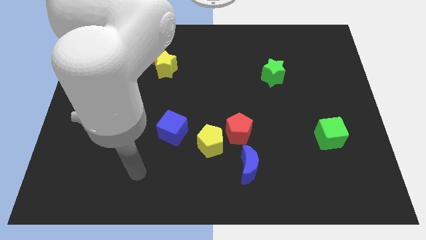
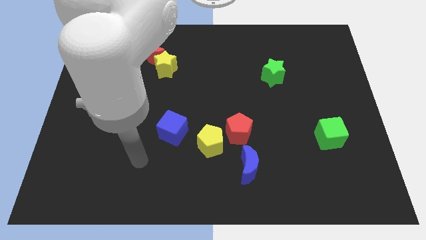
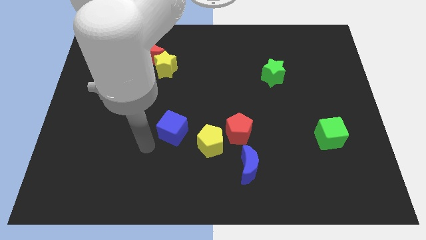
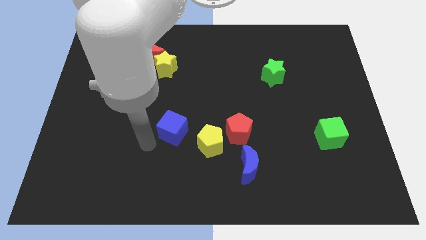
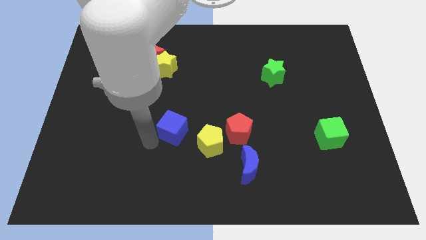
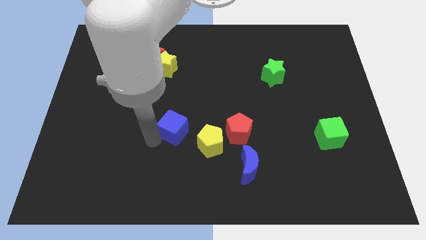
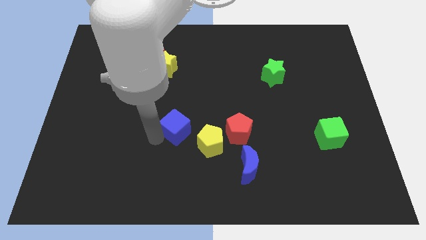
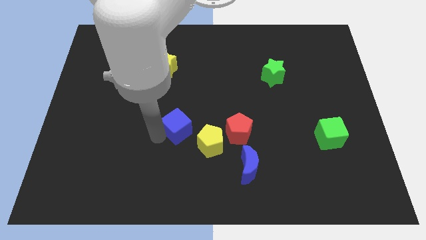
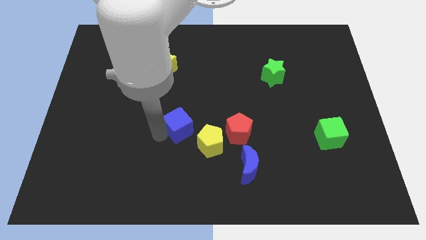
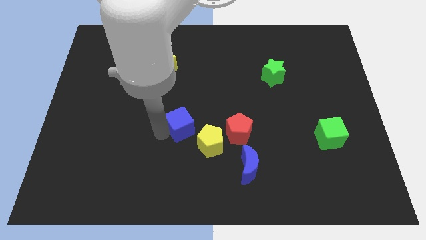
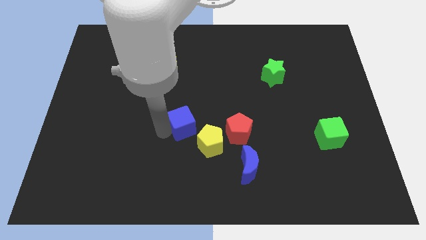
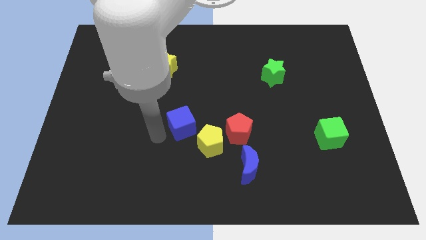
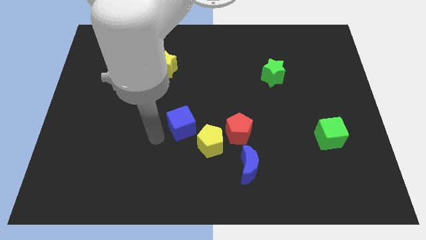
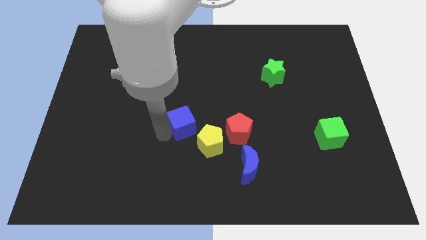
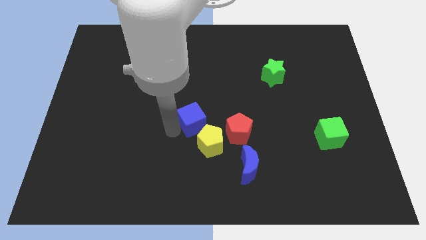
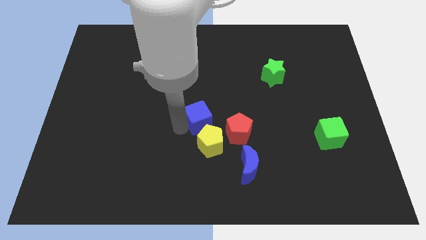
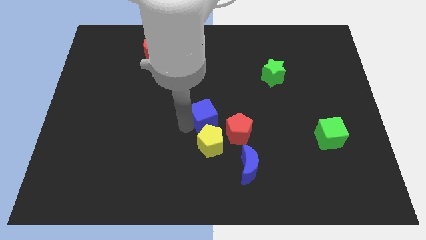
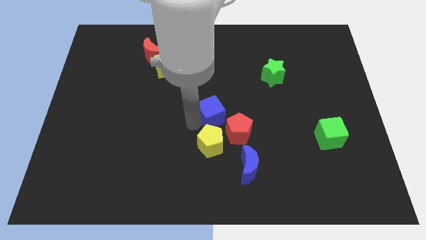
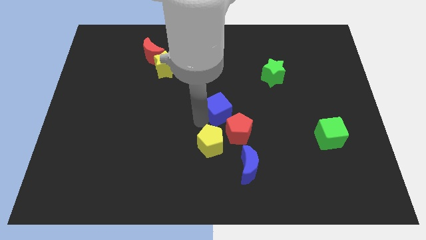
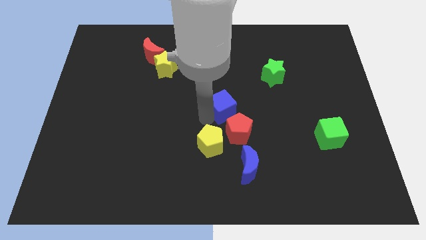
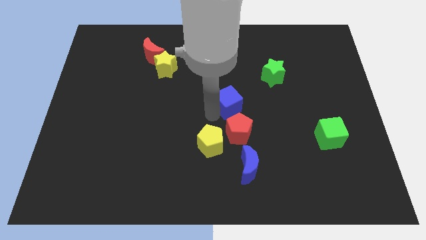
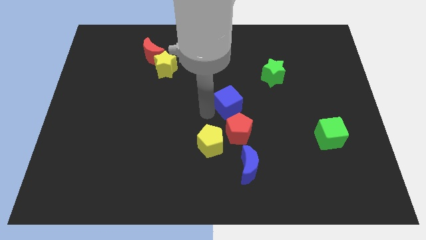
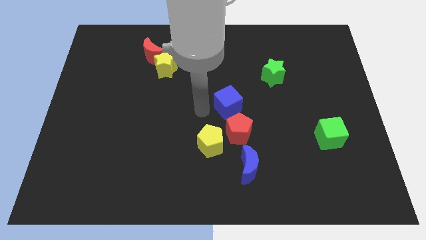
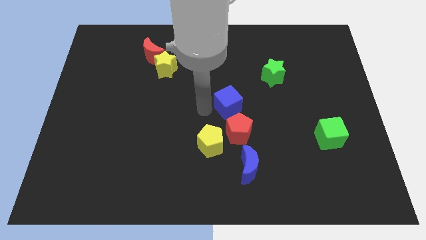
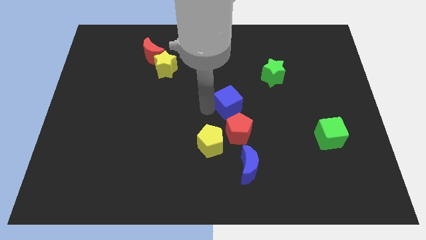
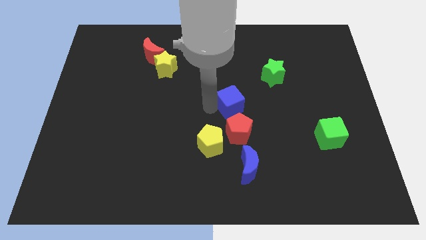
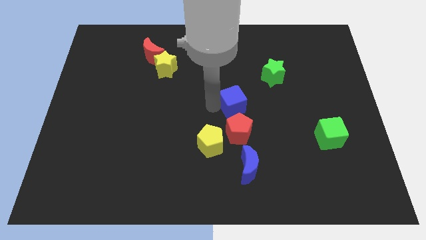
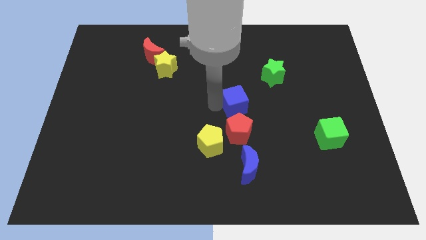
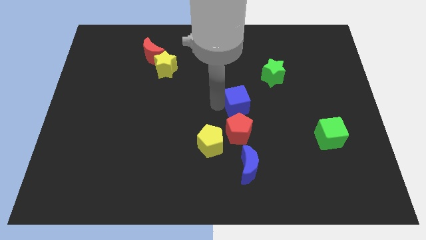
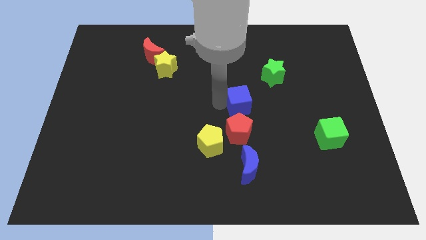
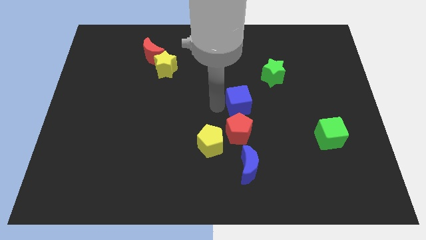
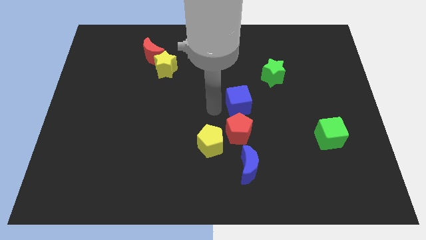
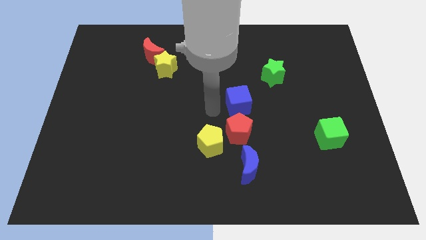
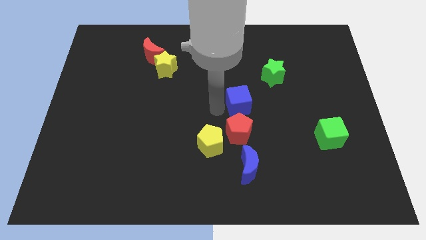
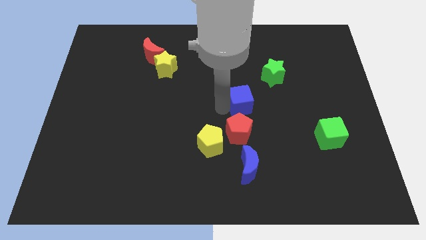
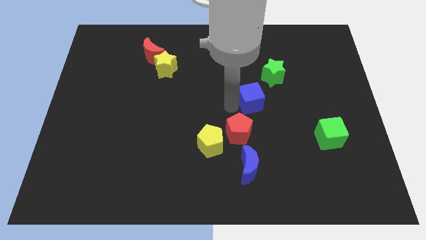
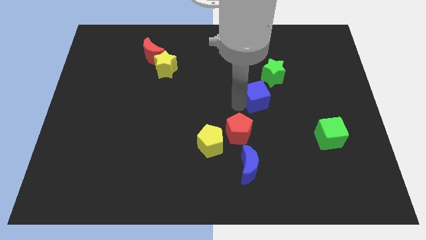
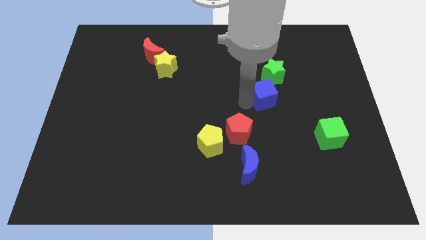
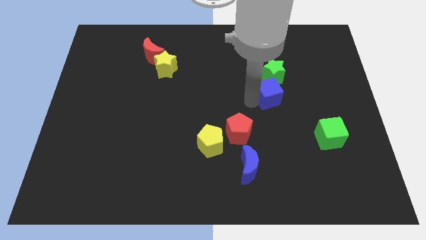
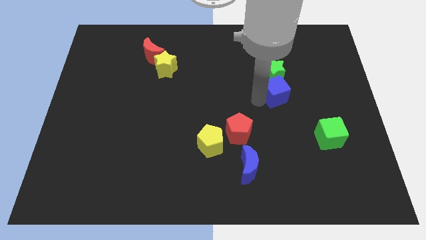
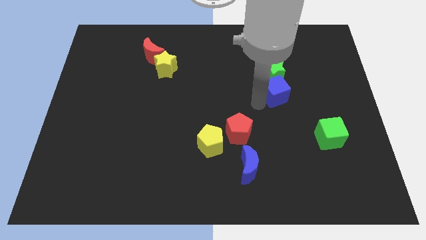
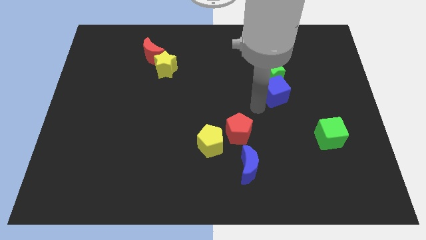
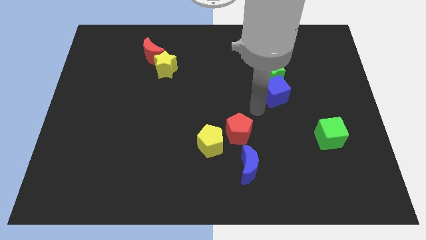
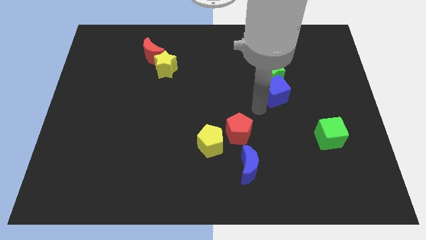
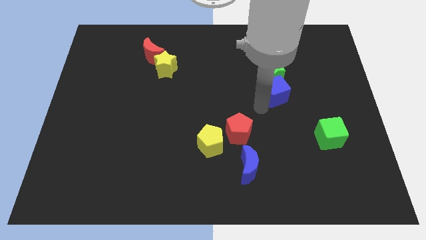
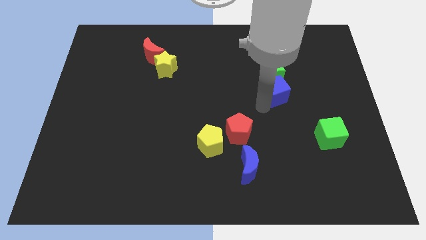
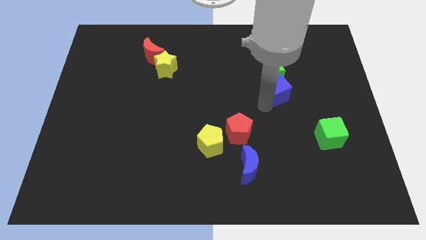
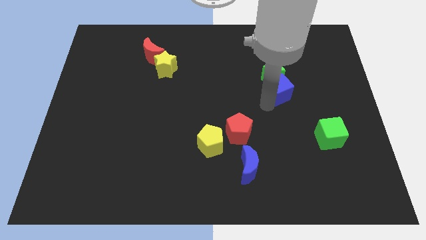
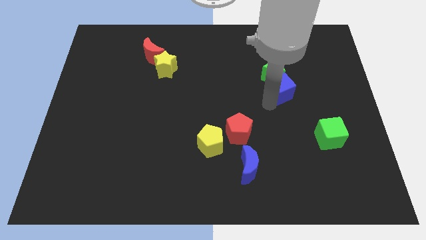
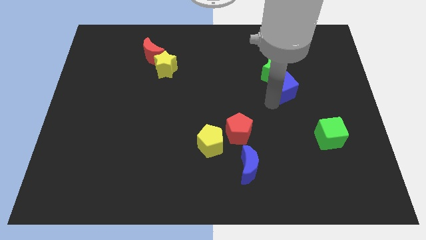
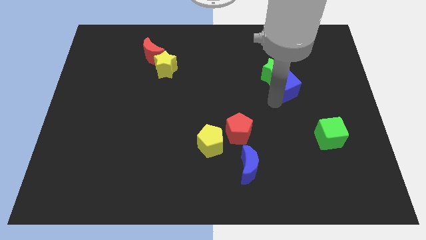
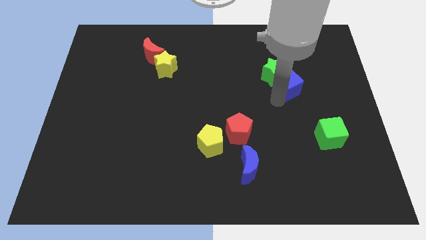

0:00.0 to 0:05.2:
push the blue cube right of the green star

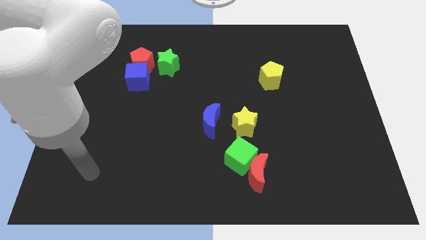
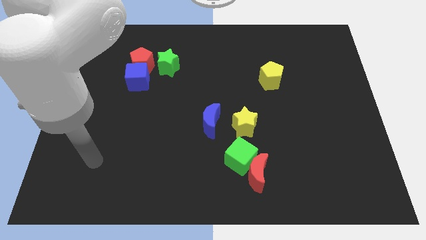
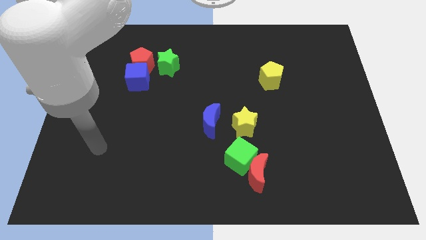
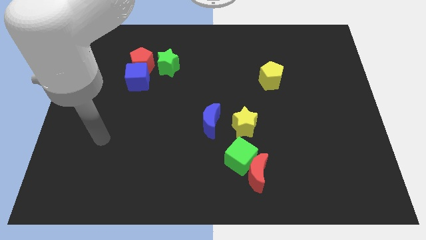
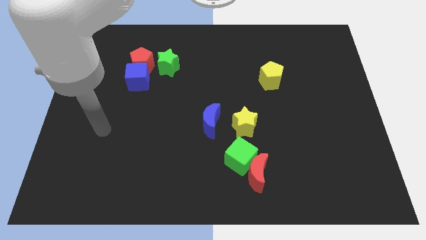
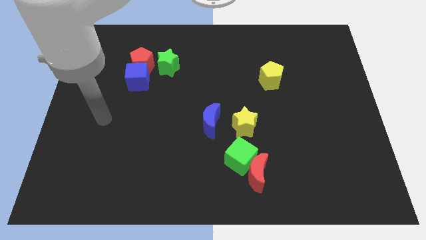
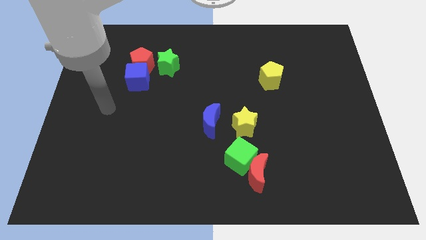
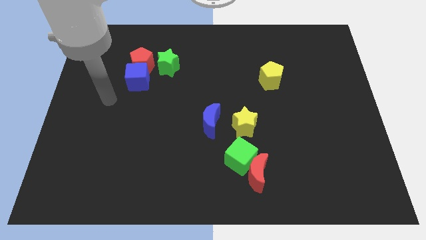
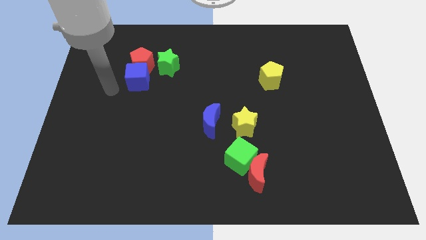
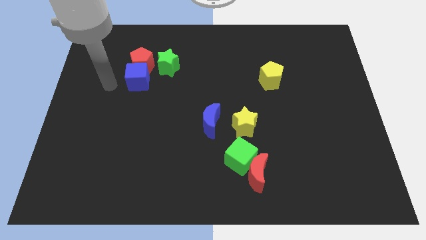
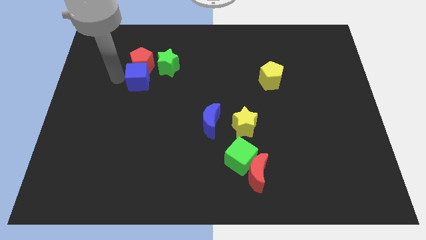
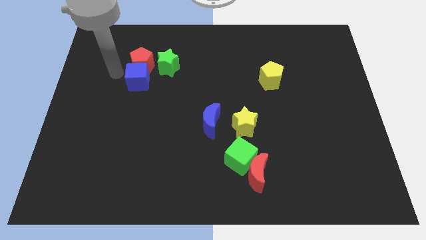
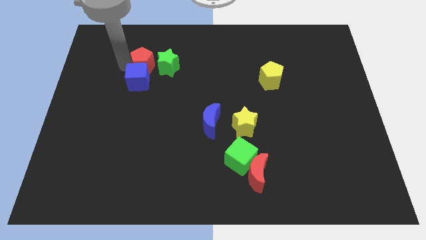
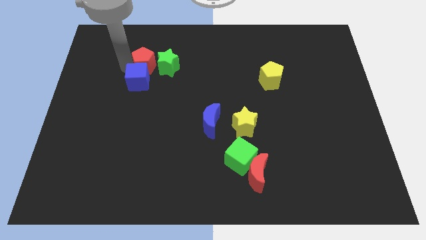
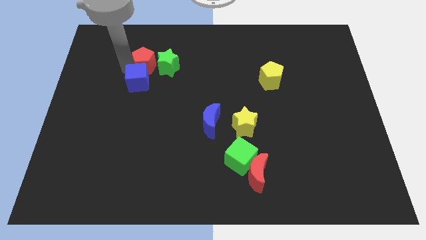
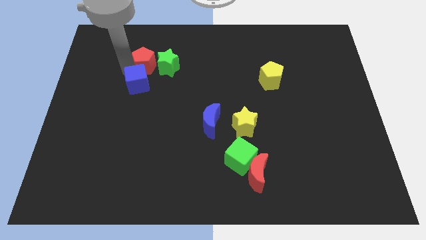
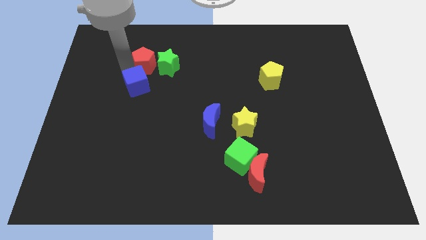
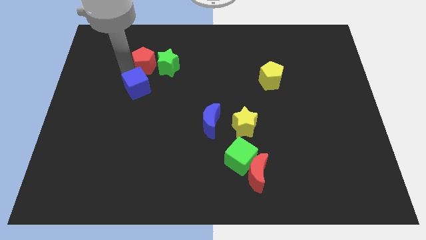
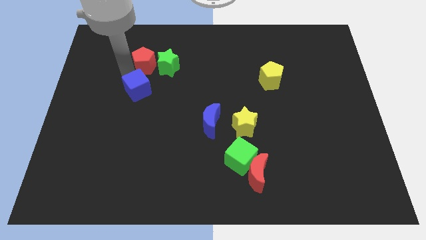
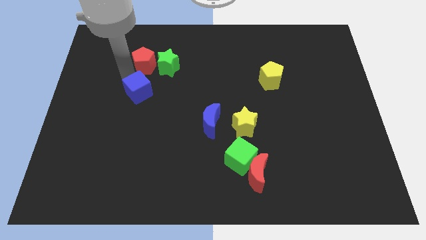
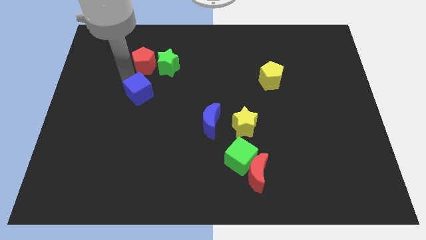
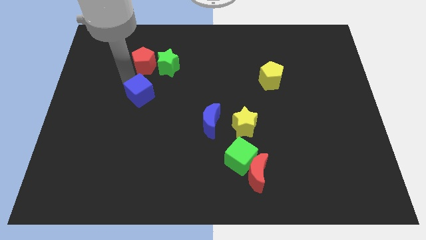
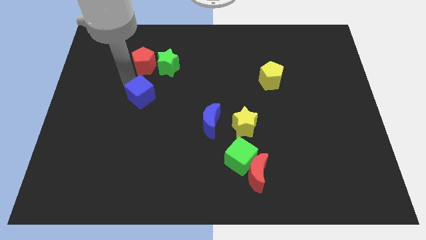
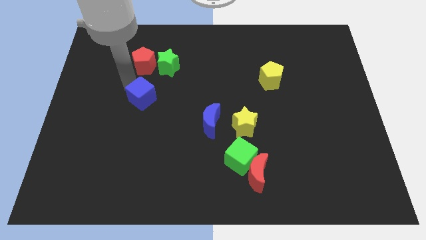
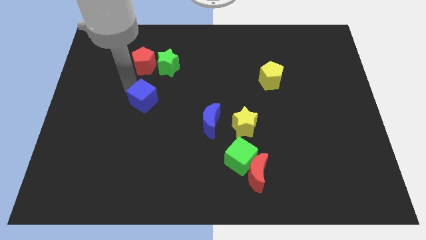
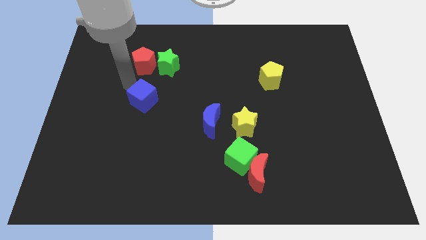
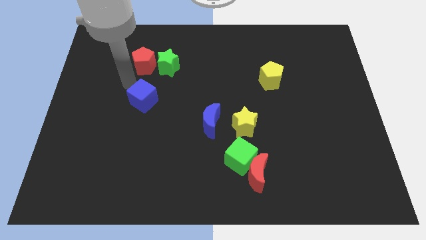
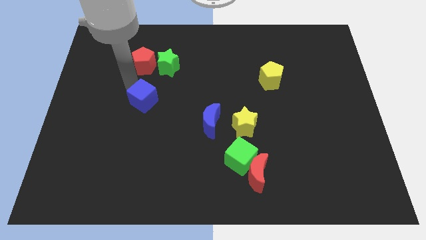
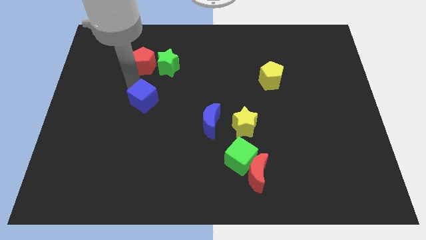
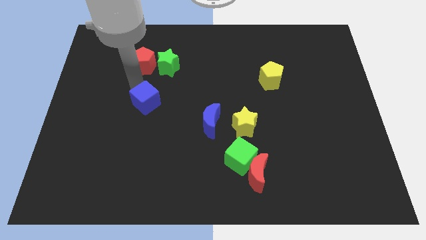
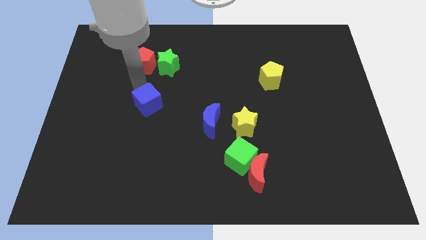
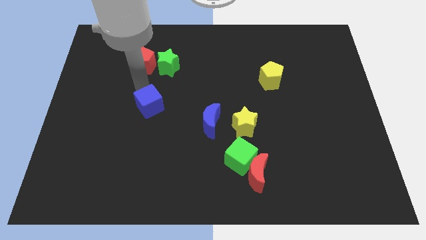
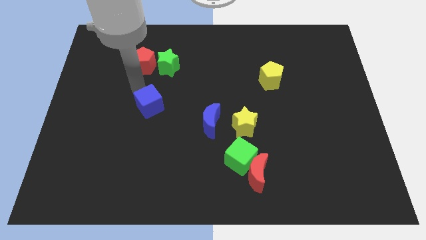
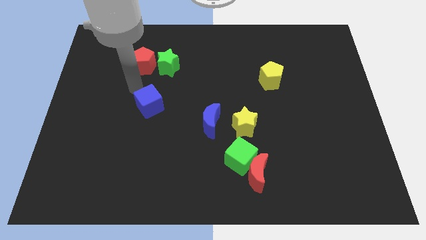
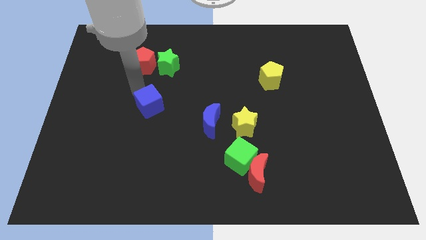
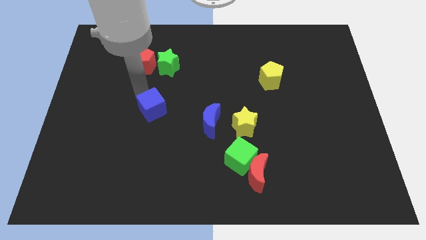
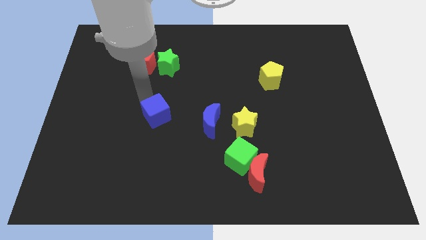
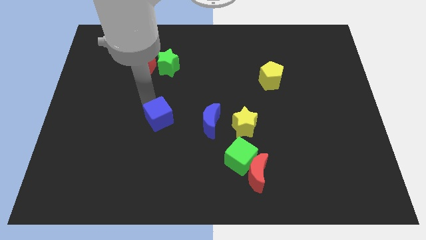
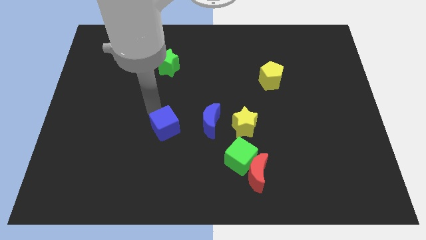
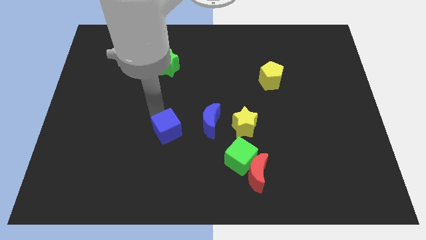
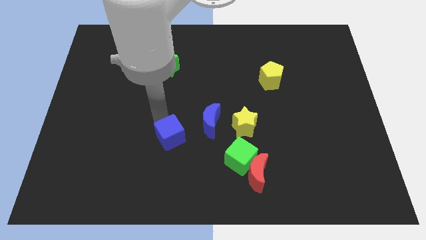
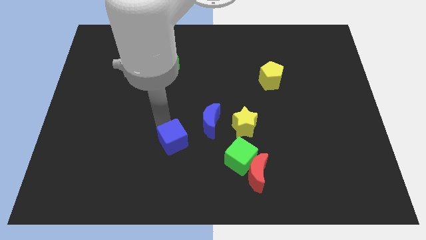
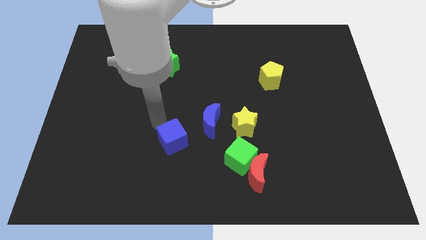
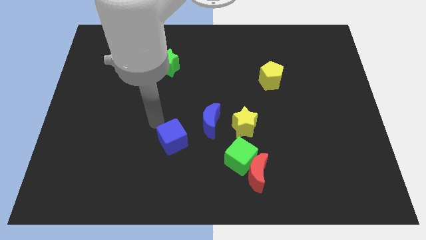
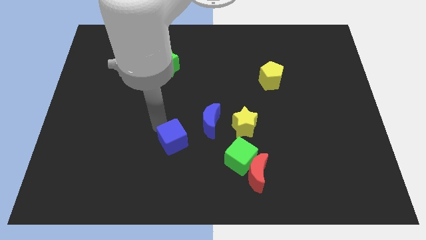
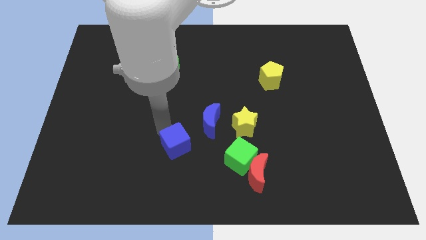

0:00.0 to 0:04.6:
push the blue cube to the left side of the green cube
